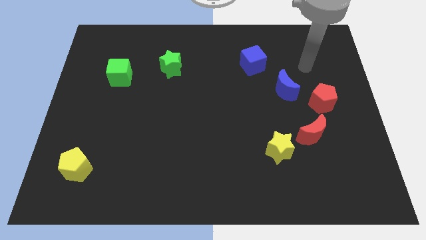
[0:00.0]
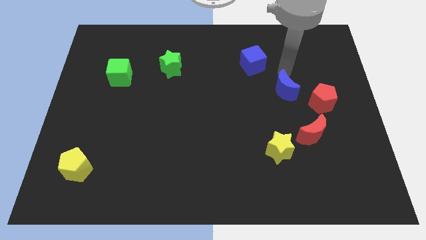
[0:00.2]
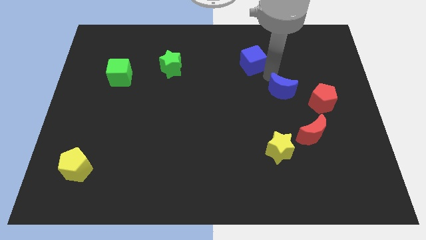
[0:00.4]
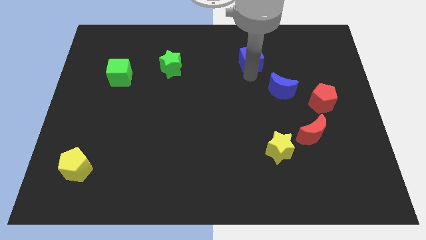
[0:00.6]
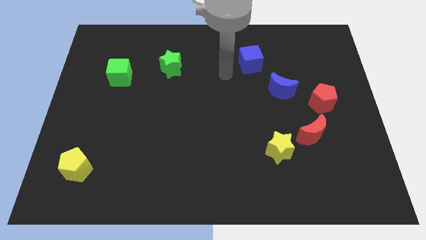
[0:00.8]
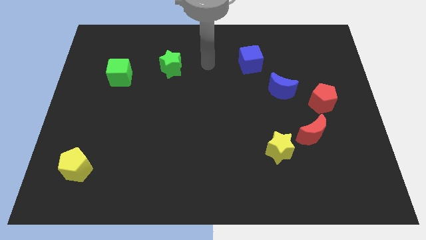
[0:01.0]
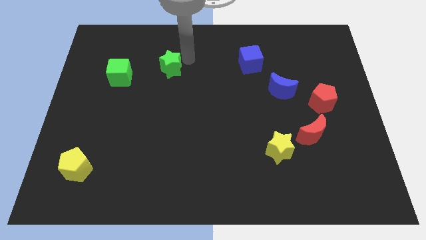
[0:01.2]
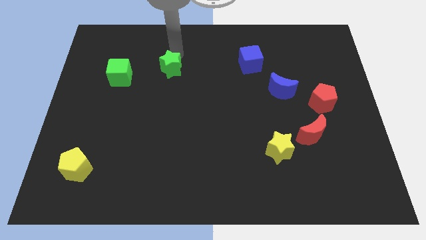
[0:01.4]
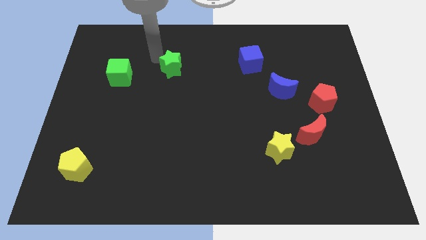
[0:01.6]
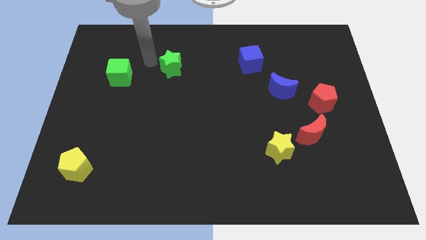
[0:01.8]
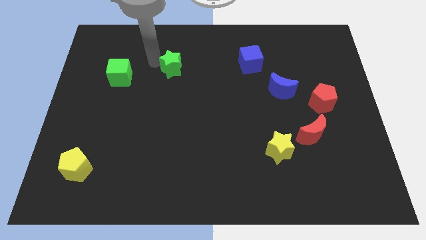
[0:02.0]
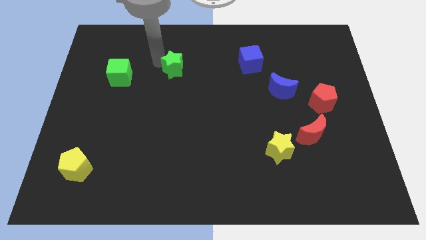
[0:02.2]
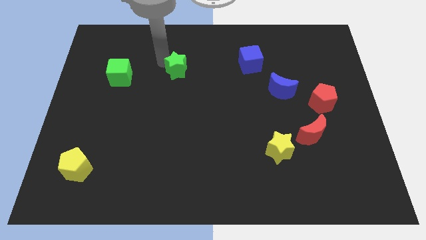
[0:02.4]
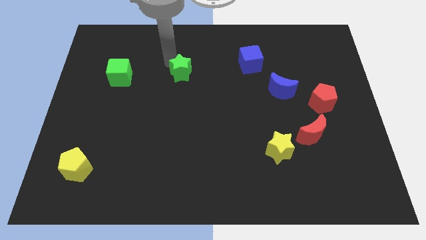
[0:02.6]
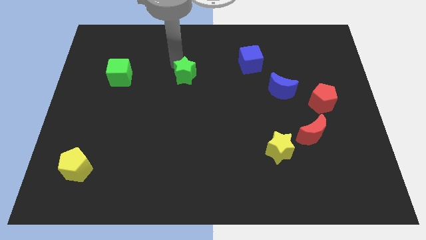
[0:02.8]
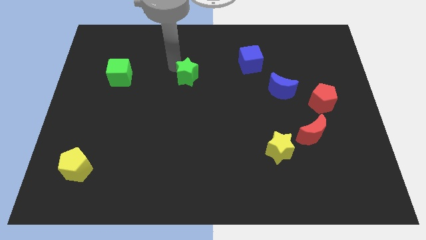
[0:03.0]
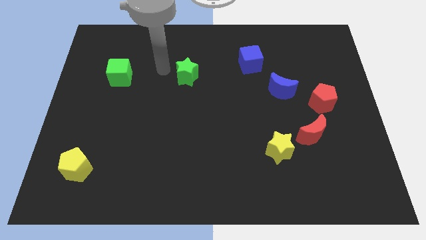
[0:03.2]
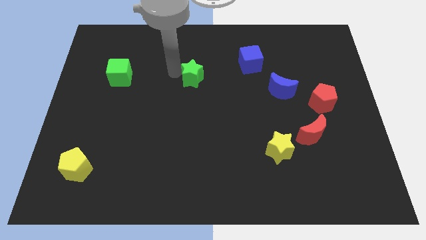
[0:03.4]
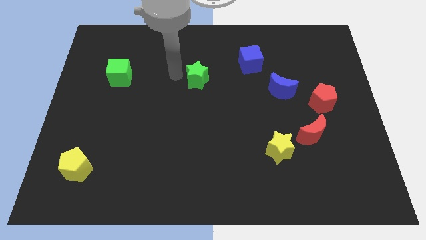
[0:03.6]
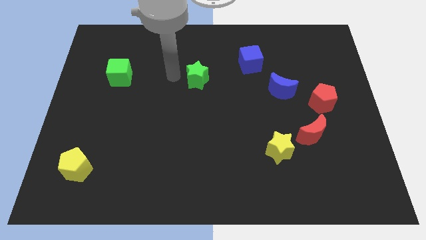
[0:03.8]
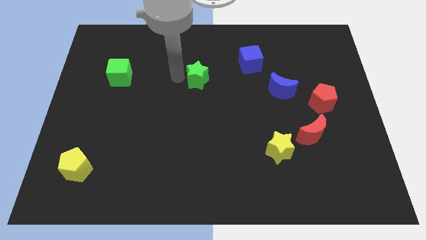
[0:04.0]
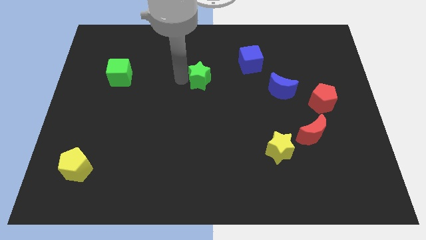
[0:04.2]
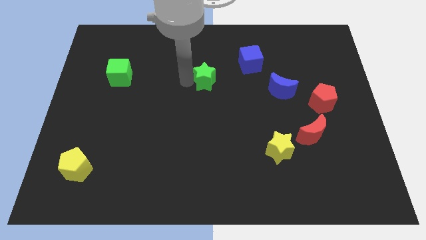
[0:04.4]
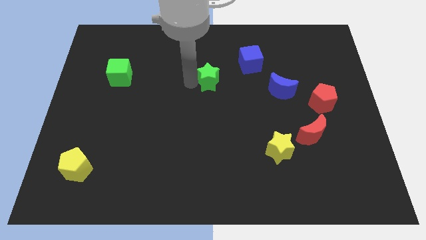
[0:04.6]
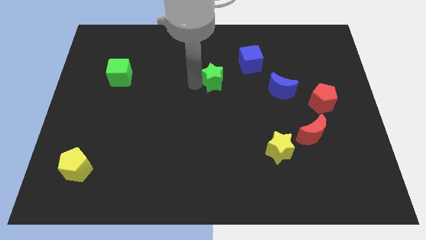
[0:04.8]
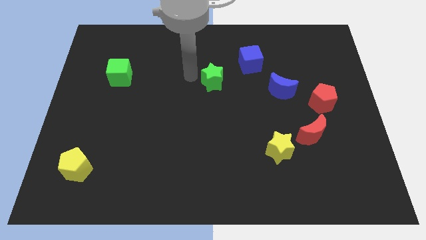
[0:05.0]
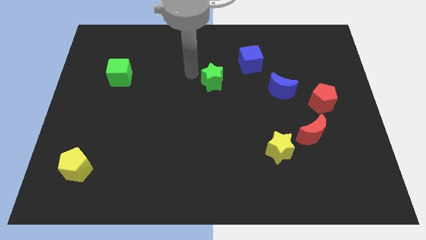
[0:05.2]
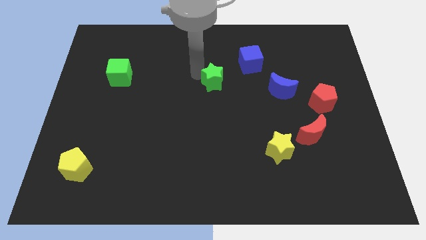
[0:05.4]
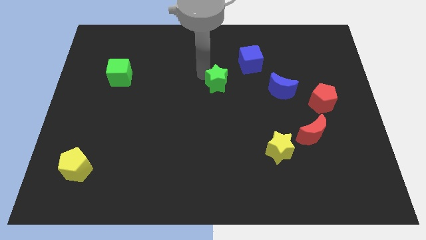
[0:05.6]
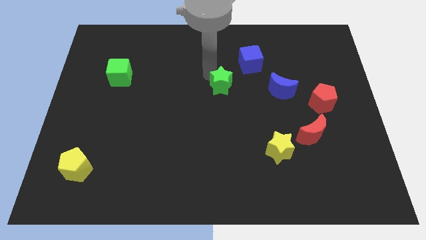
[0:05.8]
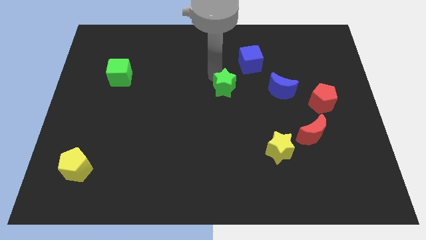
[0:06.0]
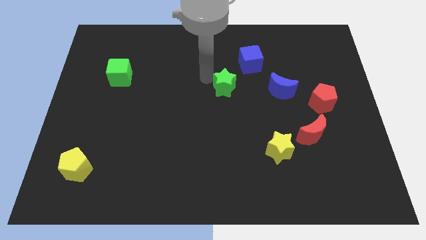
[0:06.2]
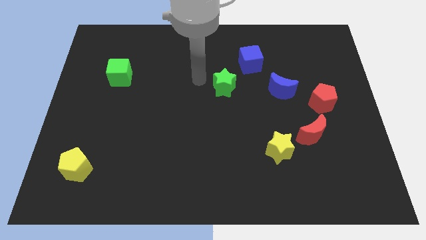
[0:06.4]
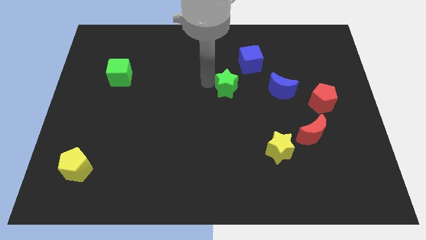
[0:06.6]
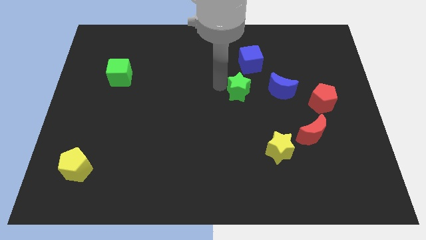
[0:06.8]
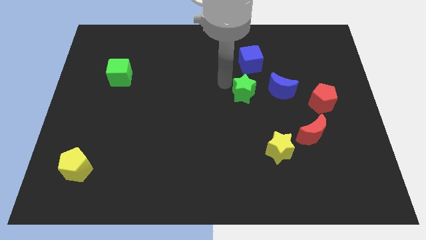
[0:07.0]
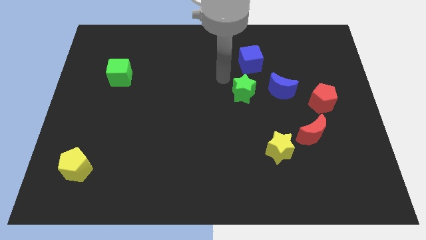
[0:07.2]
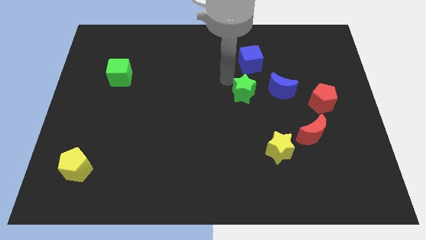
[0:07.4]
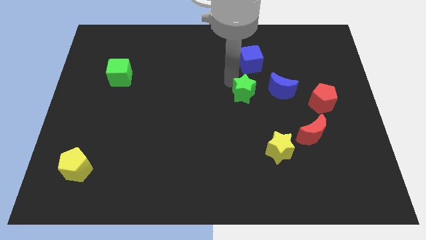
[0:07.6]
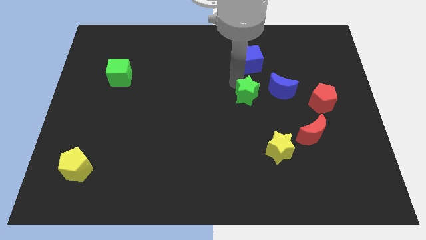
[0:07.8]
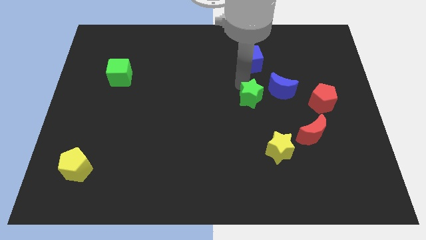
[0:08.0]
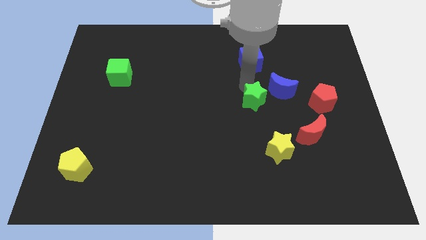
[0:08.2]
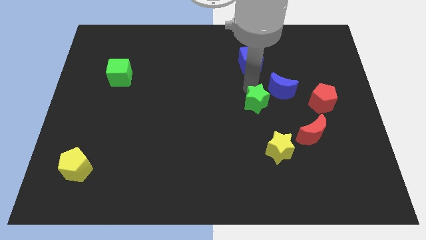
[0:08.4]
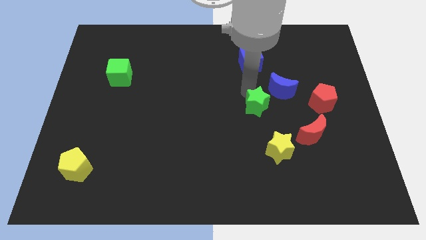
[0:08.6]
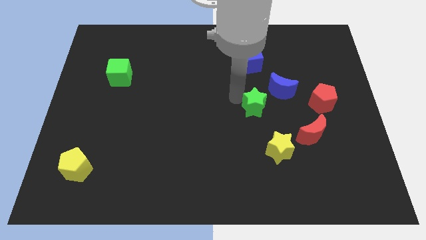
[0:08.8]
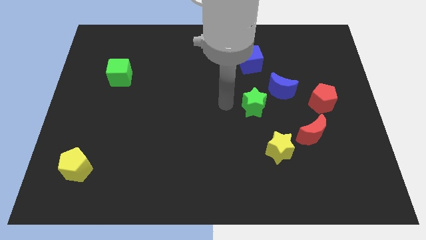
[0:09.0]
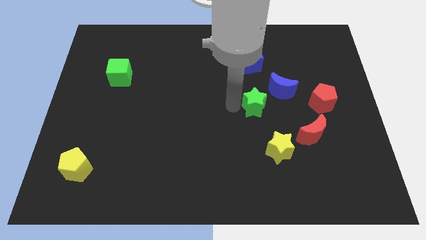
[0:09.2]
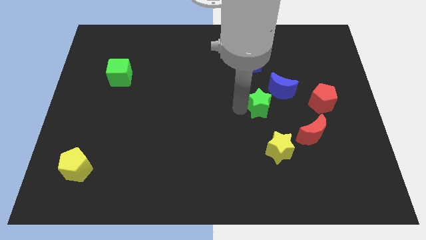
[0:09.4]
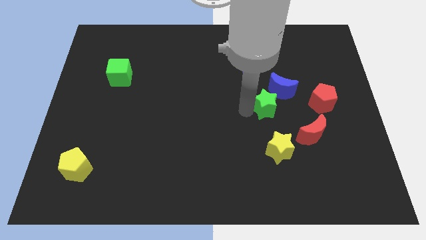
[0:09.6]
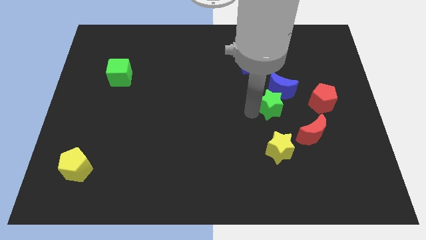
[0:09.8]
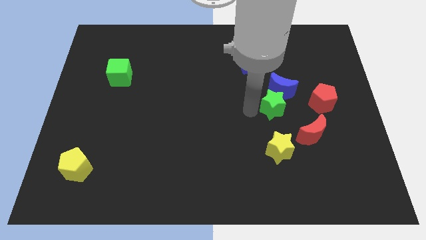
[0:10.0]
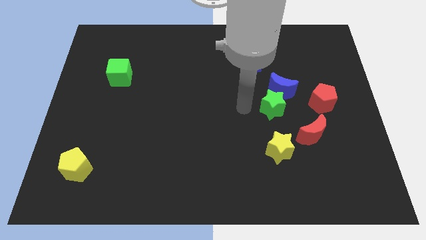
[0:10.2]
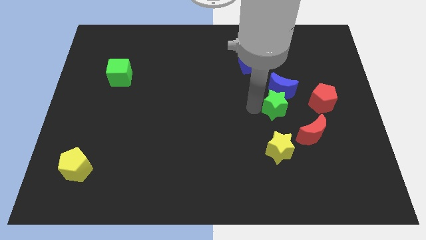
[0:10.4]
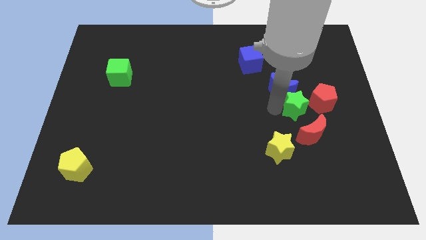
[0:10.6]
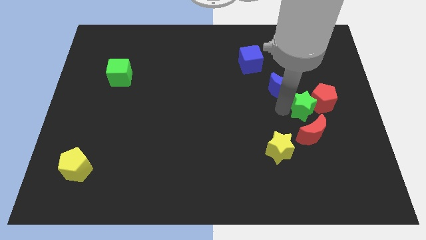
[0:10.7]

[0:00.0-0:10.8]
push the green star close to the red pentagon
